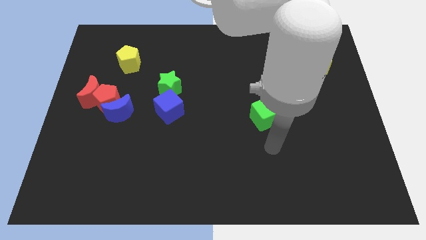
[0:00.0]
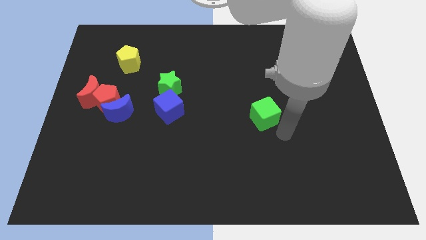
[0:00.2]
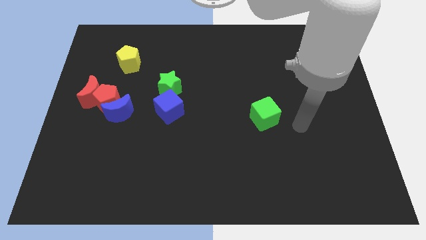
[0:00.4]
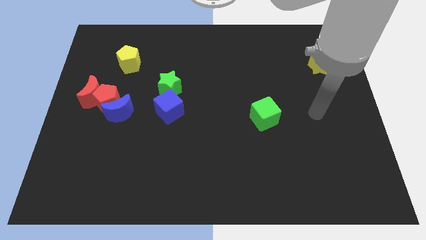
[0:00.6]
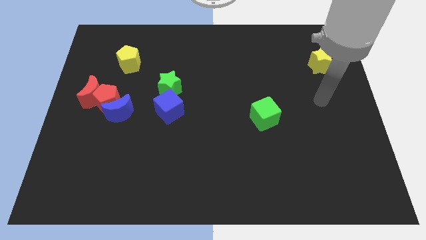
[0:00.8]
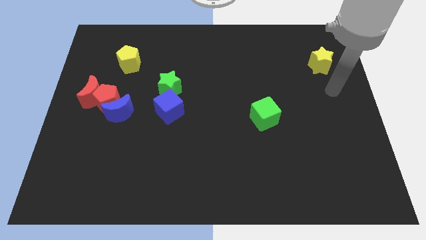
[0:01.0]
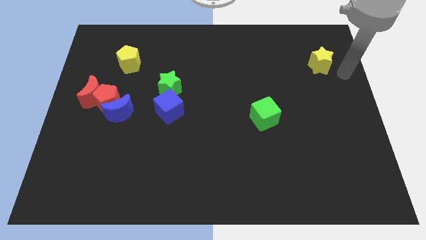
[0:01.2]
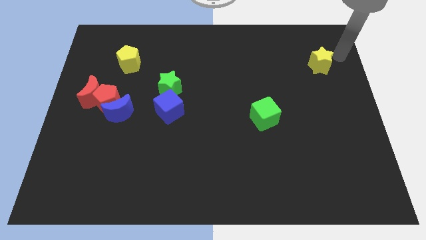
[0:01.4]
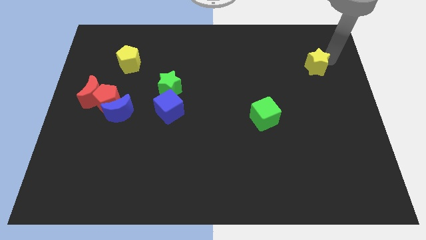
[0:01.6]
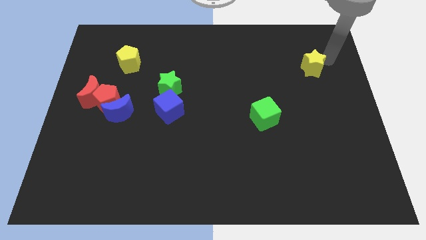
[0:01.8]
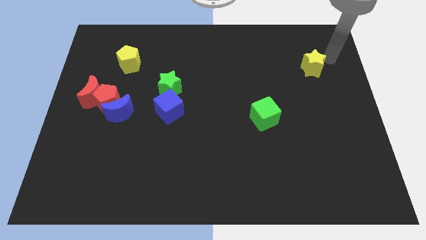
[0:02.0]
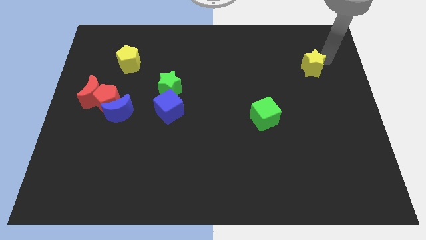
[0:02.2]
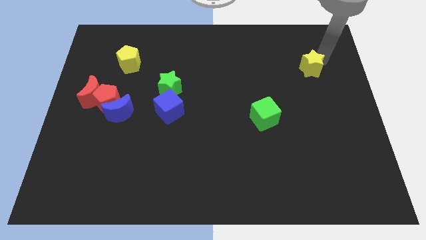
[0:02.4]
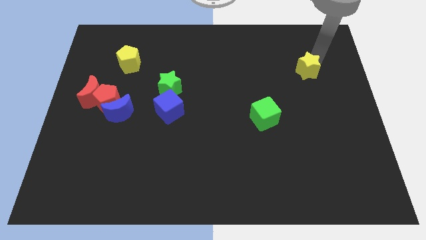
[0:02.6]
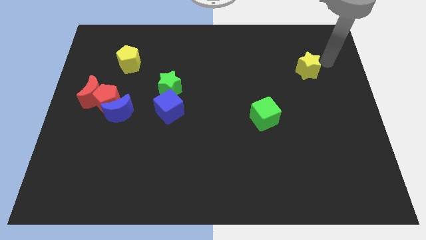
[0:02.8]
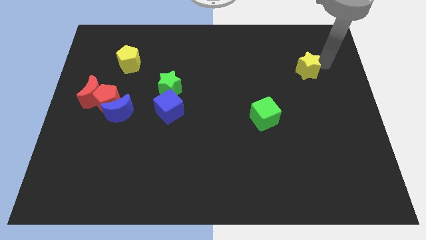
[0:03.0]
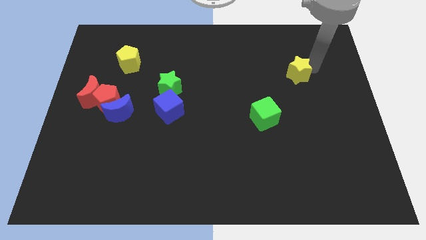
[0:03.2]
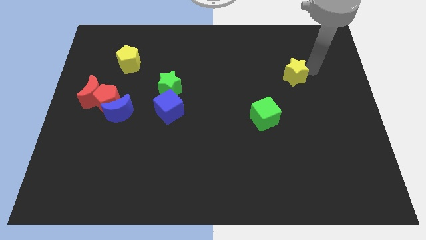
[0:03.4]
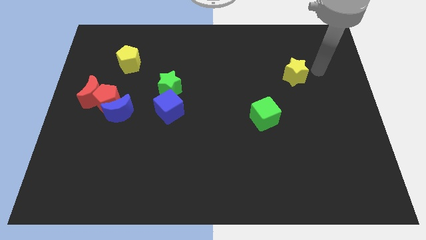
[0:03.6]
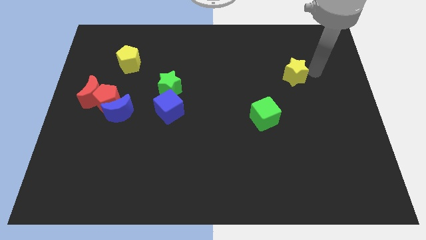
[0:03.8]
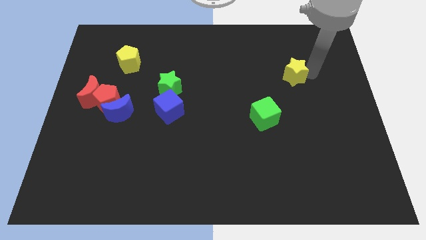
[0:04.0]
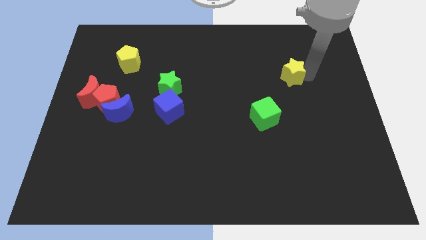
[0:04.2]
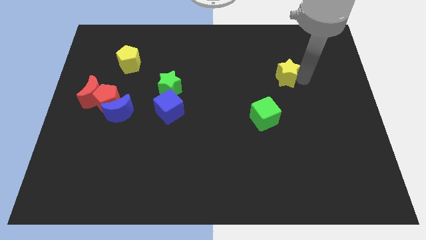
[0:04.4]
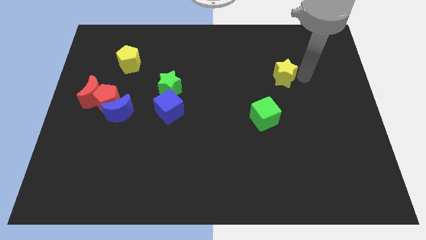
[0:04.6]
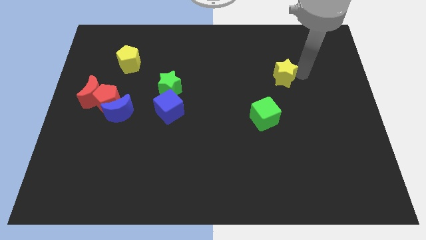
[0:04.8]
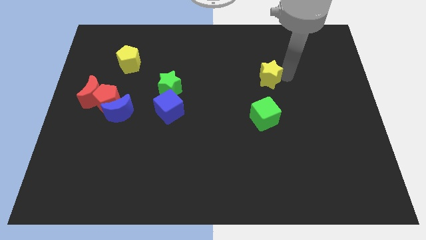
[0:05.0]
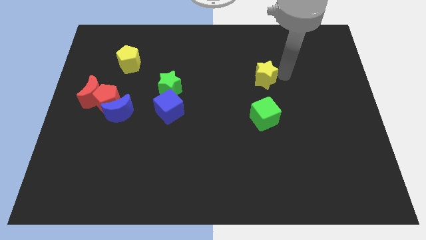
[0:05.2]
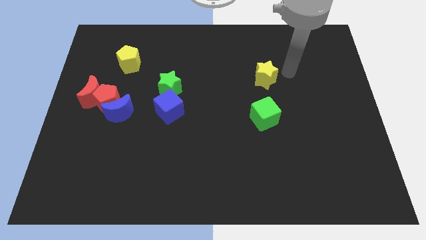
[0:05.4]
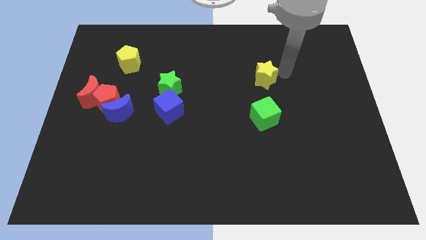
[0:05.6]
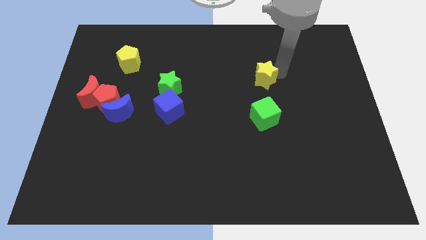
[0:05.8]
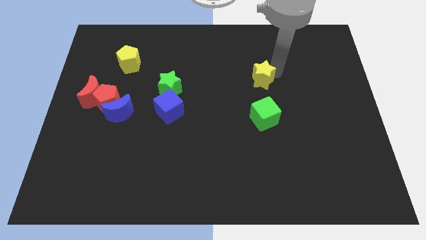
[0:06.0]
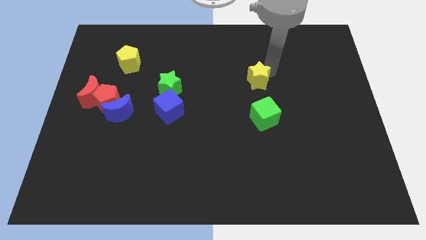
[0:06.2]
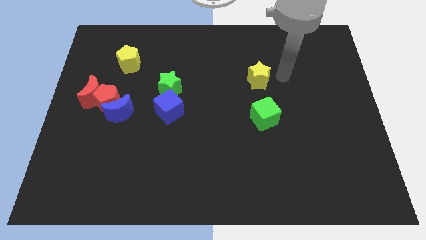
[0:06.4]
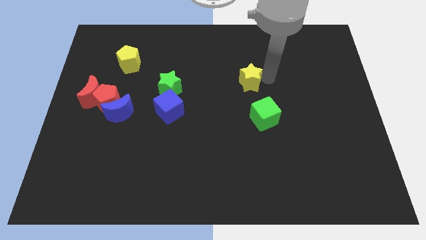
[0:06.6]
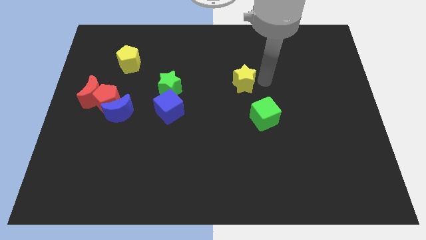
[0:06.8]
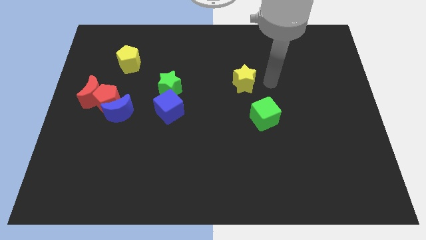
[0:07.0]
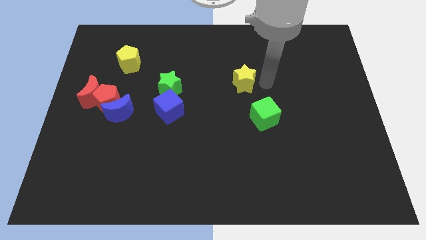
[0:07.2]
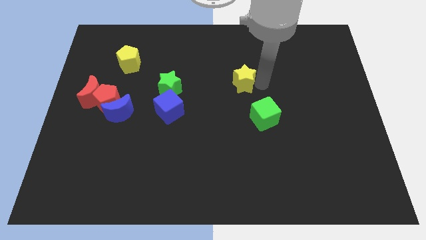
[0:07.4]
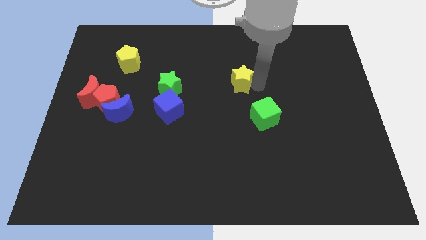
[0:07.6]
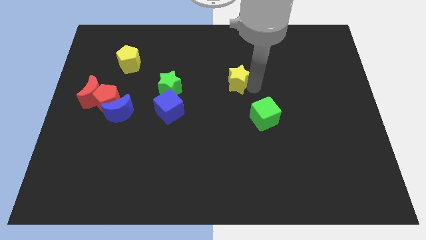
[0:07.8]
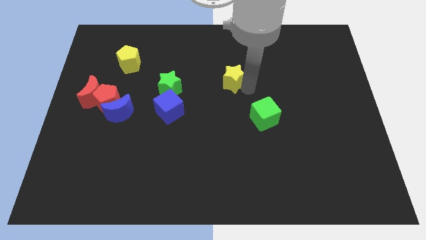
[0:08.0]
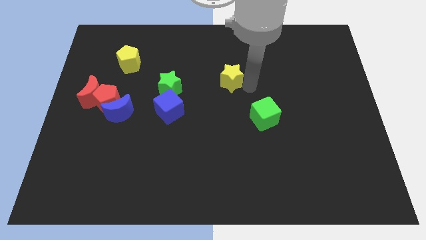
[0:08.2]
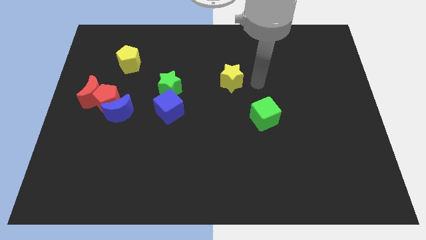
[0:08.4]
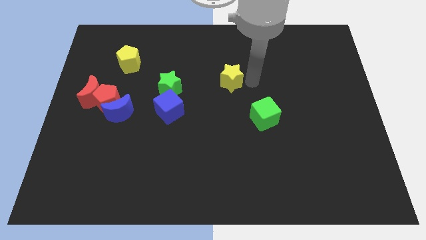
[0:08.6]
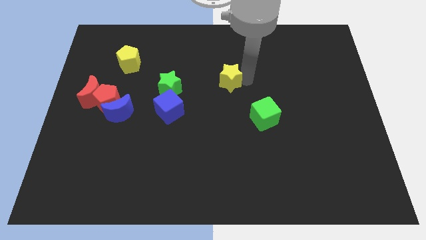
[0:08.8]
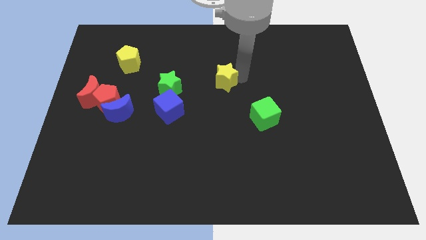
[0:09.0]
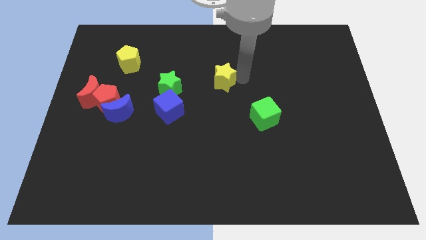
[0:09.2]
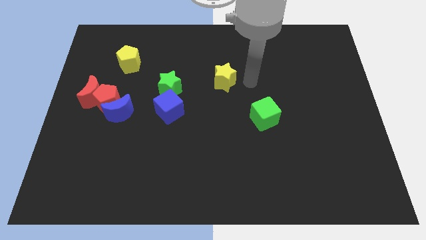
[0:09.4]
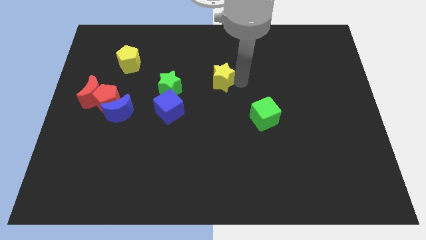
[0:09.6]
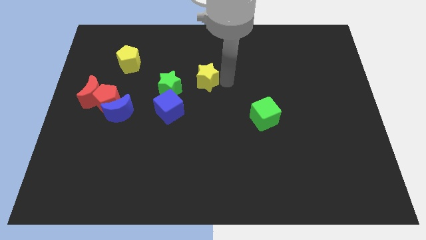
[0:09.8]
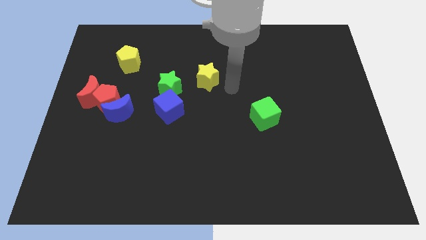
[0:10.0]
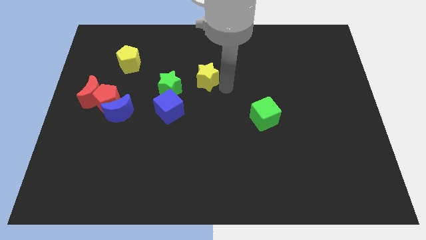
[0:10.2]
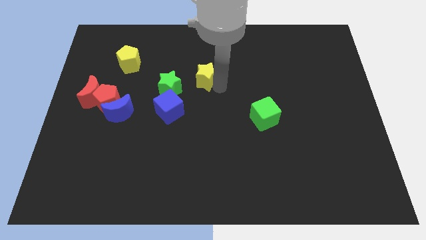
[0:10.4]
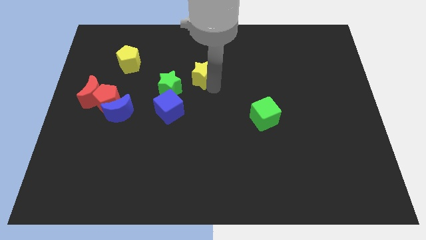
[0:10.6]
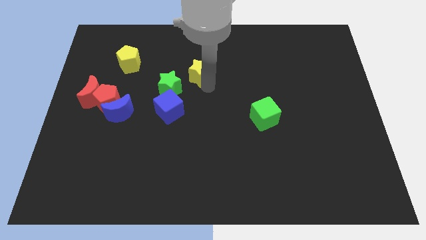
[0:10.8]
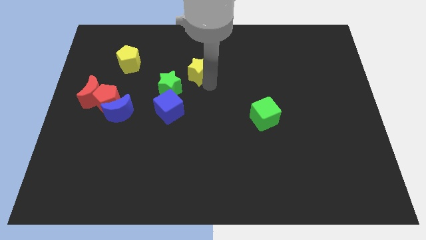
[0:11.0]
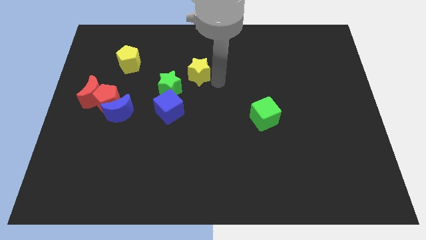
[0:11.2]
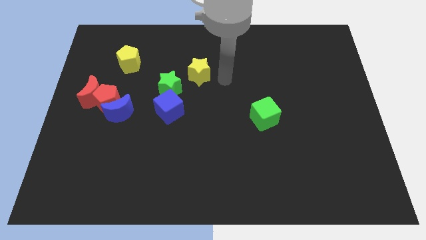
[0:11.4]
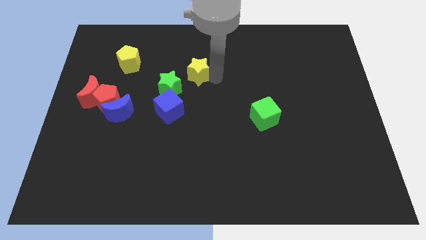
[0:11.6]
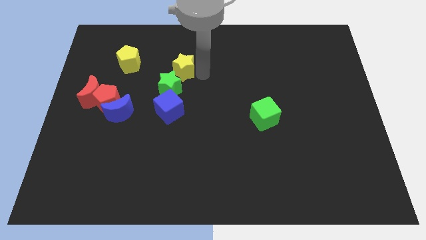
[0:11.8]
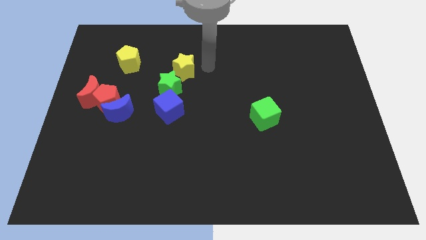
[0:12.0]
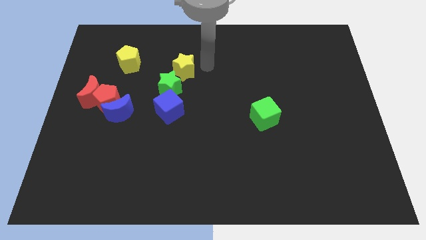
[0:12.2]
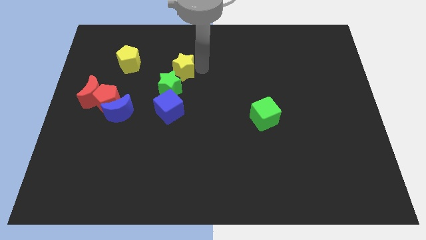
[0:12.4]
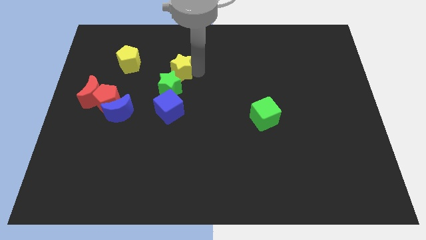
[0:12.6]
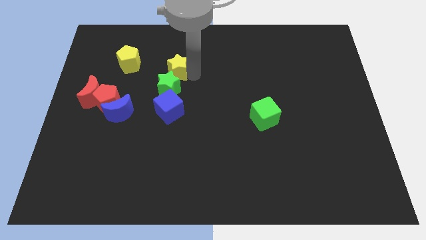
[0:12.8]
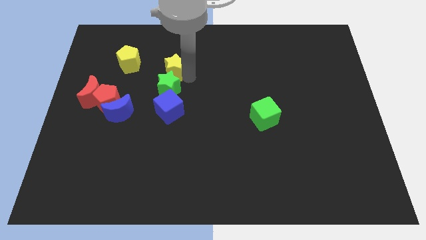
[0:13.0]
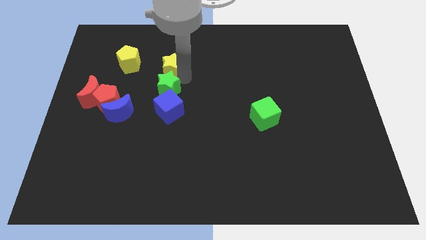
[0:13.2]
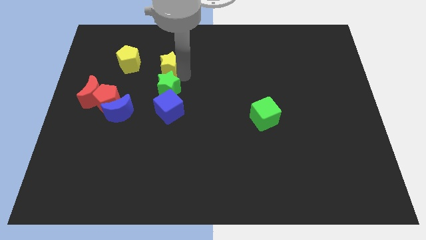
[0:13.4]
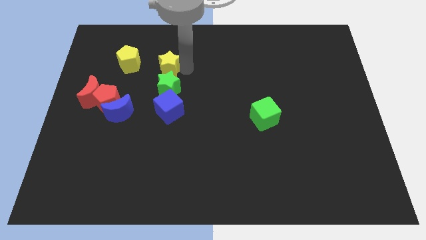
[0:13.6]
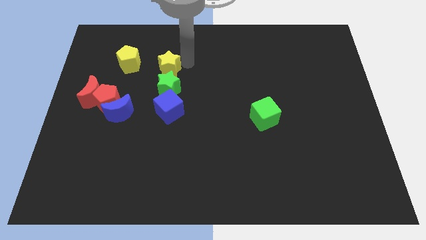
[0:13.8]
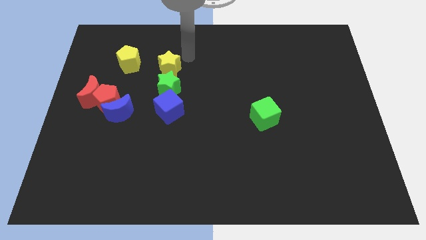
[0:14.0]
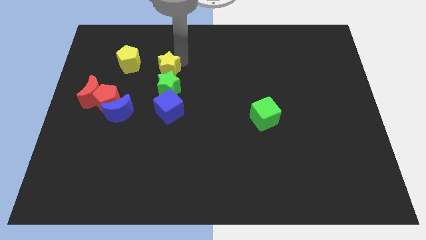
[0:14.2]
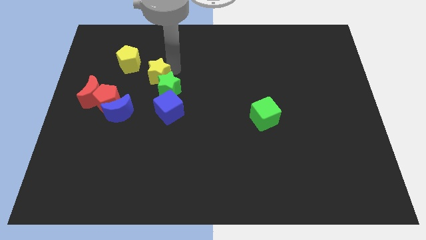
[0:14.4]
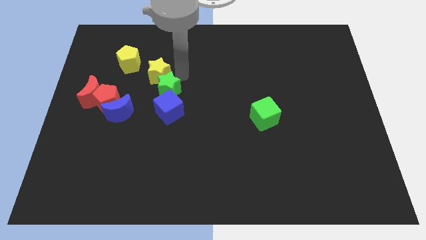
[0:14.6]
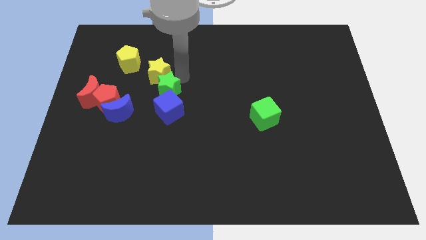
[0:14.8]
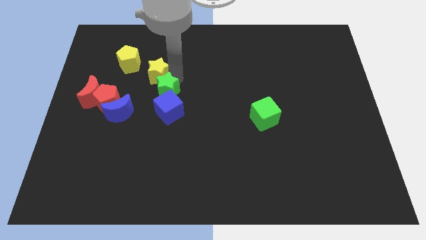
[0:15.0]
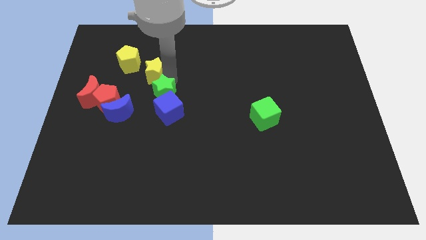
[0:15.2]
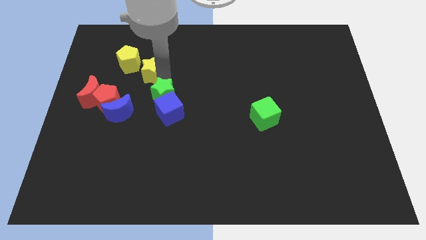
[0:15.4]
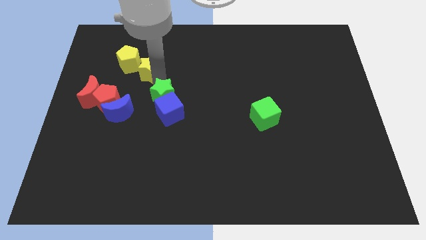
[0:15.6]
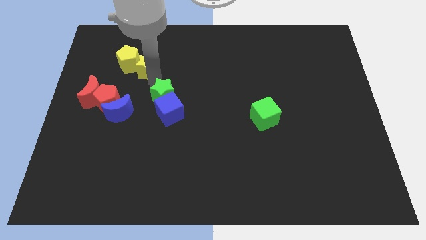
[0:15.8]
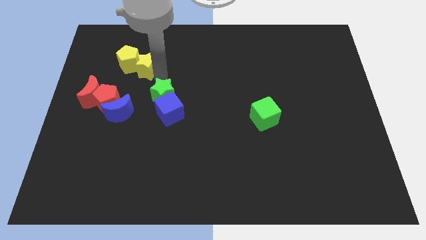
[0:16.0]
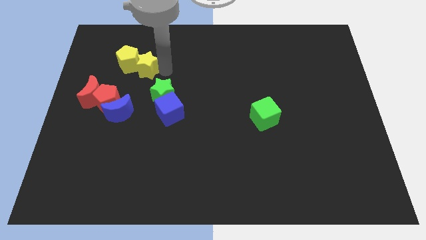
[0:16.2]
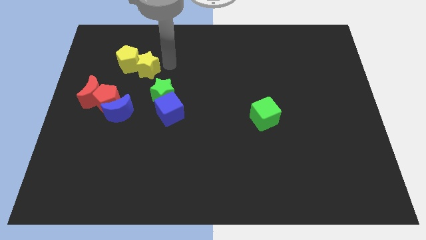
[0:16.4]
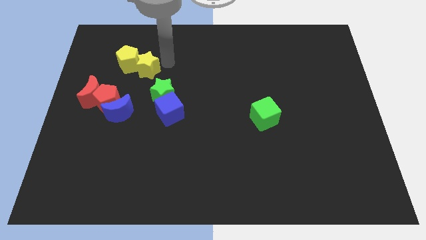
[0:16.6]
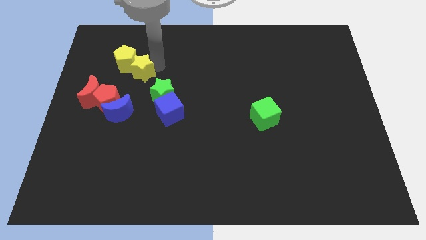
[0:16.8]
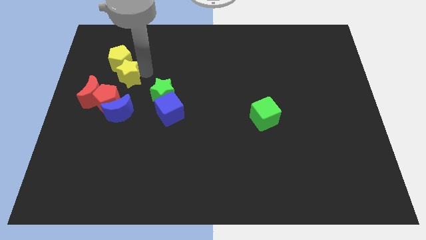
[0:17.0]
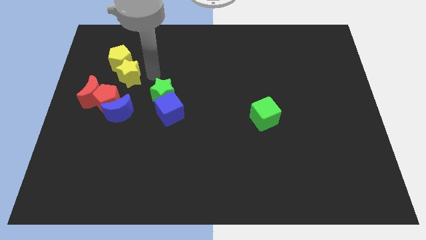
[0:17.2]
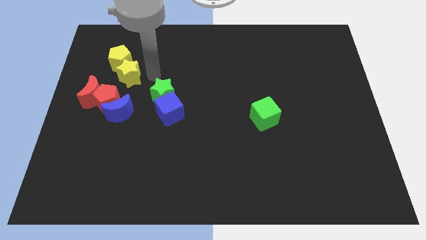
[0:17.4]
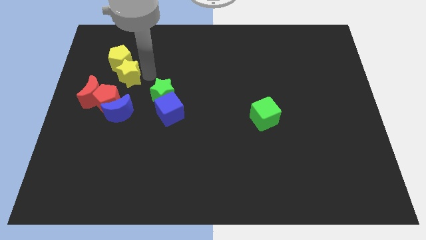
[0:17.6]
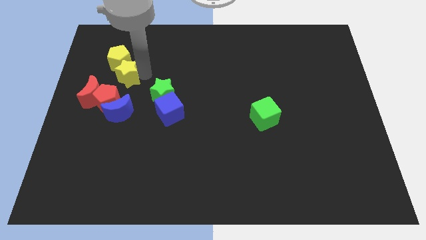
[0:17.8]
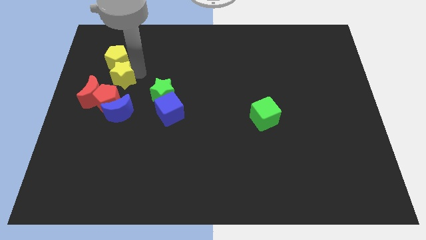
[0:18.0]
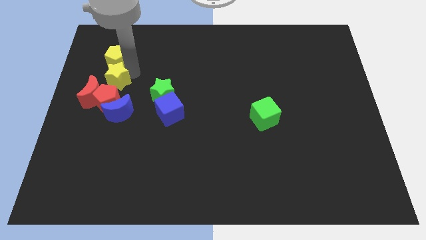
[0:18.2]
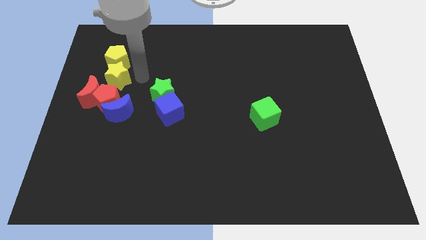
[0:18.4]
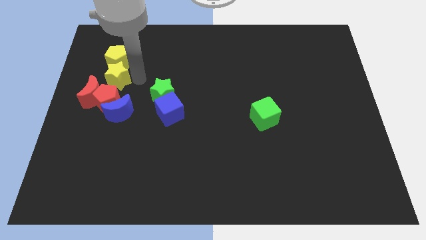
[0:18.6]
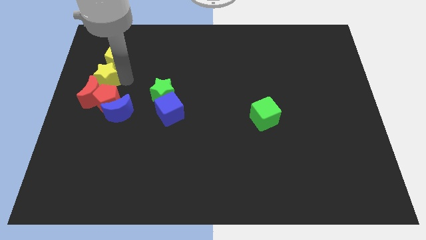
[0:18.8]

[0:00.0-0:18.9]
push the yellow star to the center left
